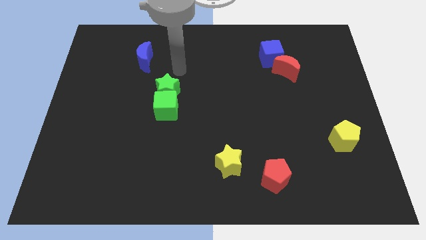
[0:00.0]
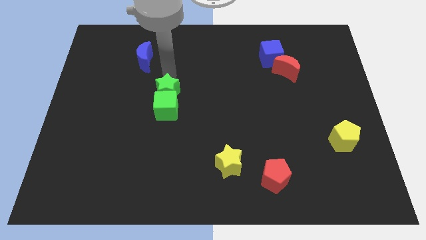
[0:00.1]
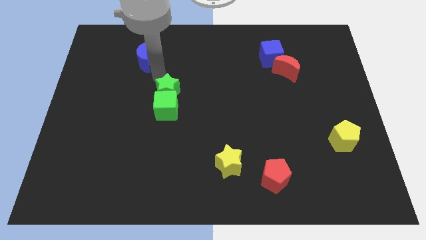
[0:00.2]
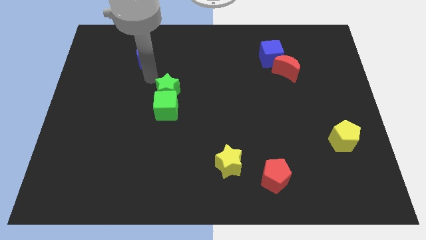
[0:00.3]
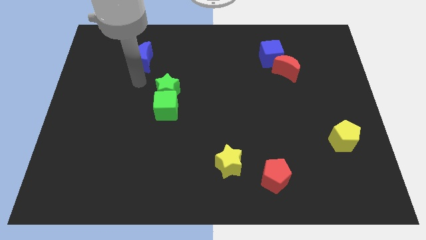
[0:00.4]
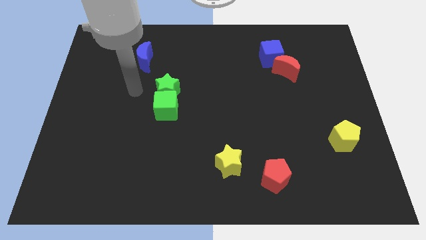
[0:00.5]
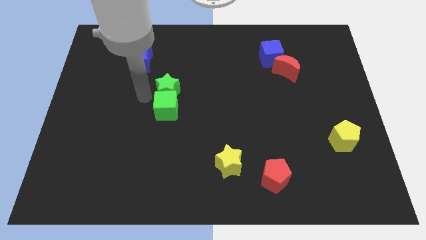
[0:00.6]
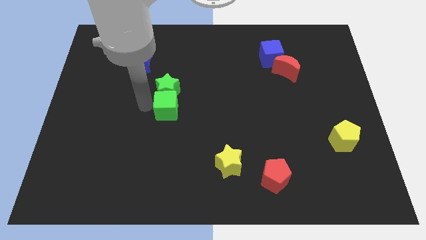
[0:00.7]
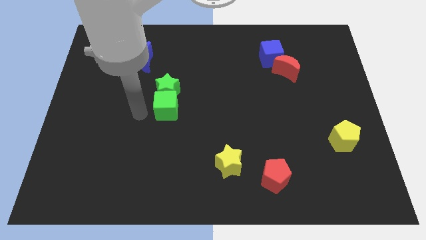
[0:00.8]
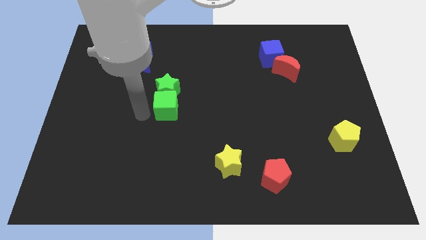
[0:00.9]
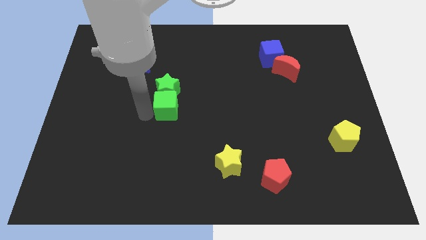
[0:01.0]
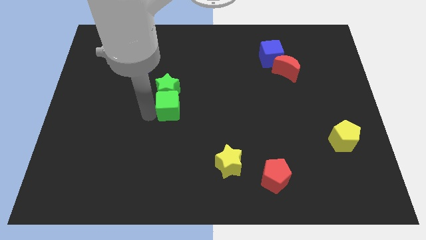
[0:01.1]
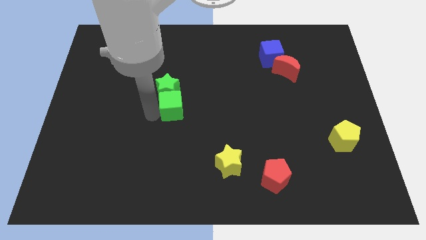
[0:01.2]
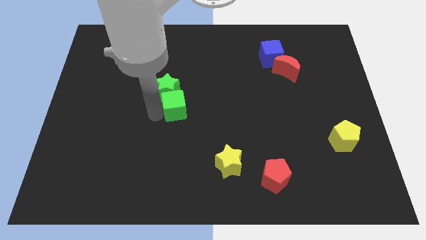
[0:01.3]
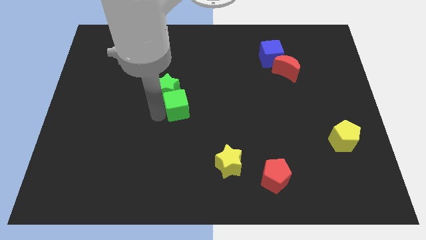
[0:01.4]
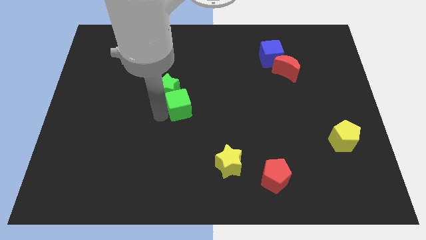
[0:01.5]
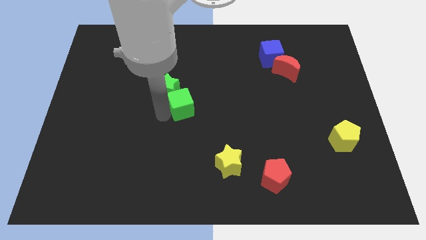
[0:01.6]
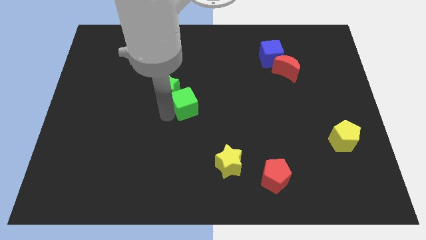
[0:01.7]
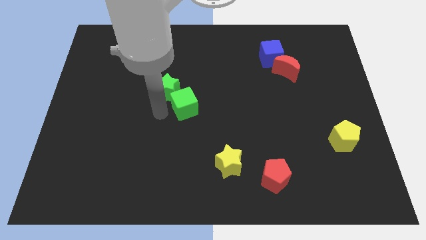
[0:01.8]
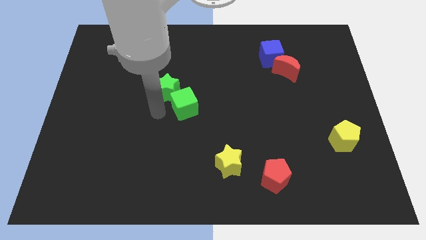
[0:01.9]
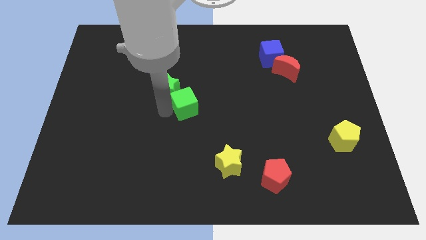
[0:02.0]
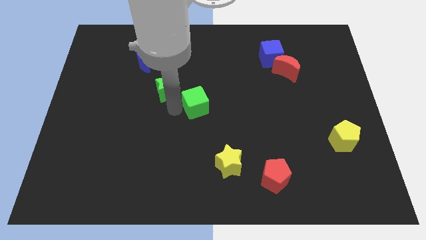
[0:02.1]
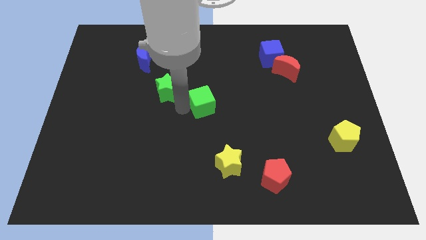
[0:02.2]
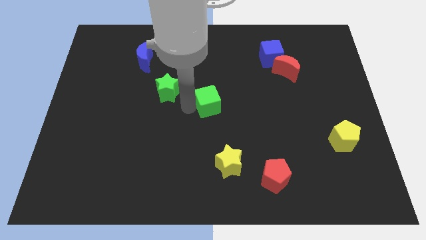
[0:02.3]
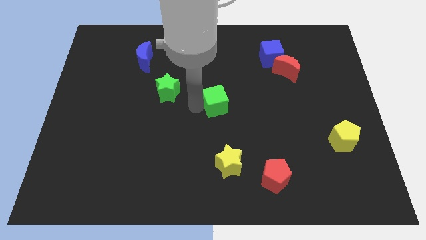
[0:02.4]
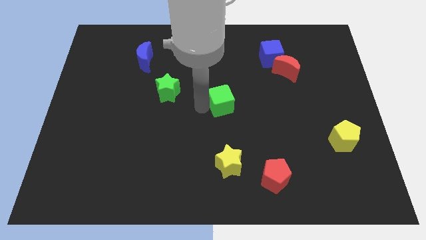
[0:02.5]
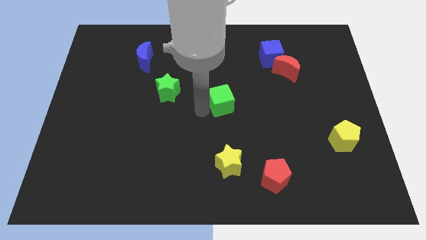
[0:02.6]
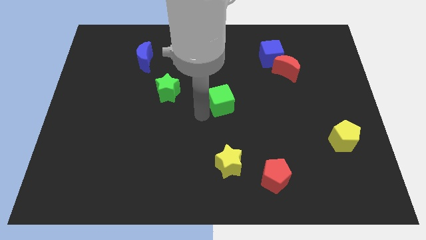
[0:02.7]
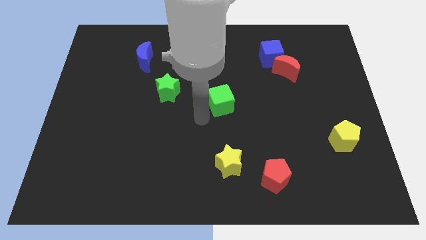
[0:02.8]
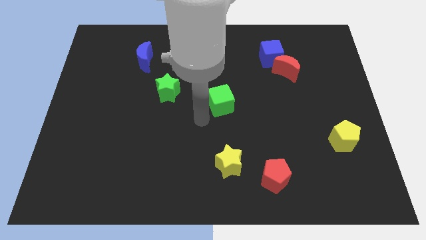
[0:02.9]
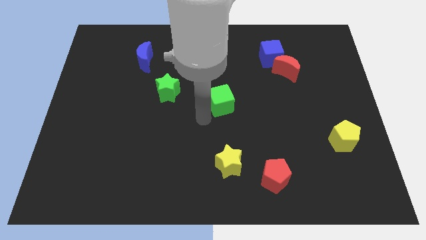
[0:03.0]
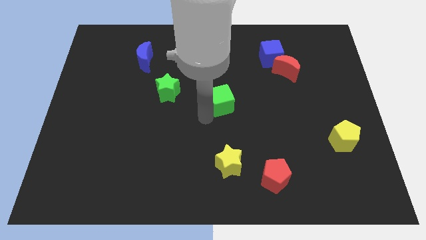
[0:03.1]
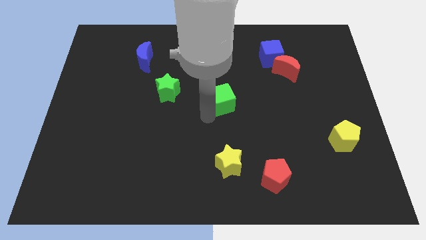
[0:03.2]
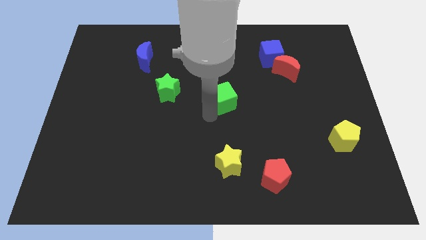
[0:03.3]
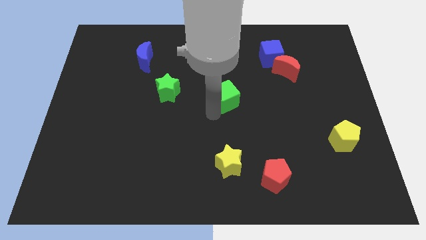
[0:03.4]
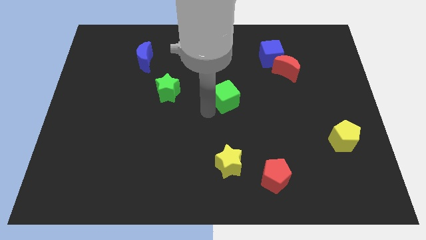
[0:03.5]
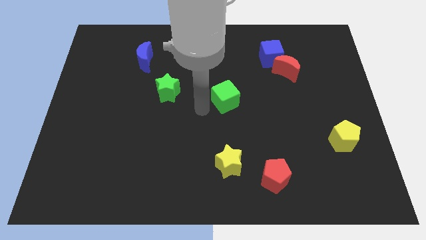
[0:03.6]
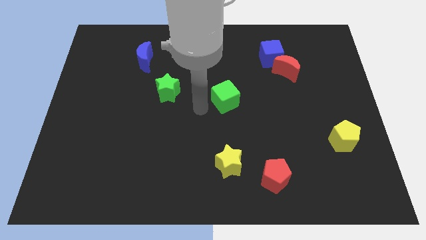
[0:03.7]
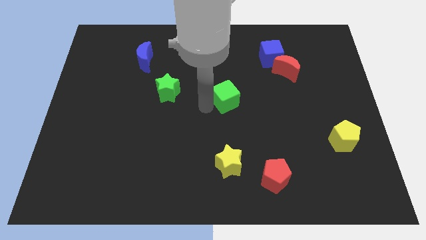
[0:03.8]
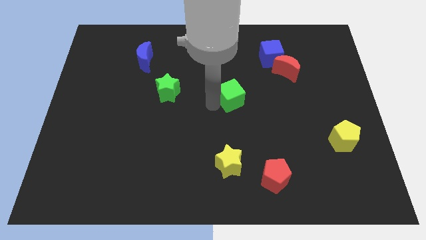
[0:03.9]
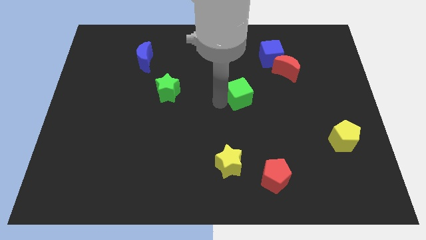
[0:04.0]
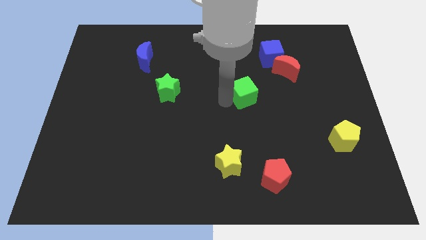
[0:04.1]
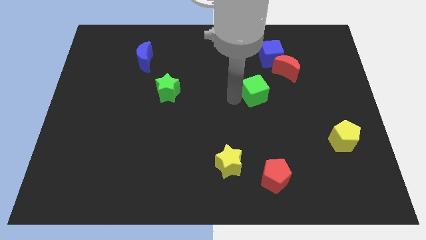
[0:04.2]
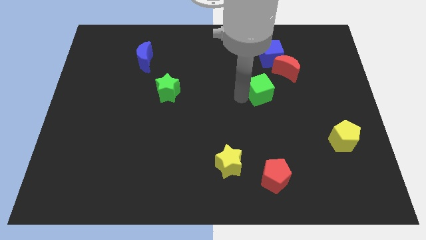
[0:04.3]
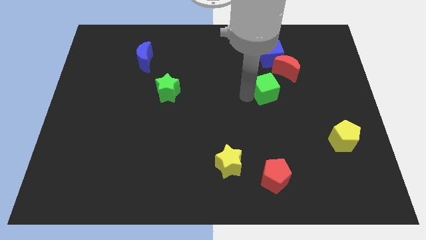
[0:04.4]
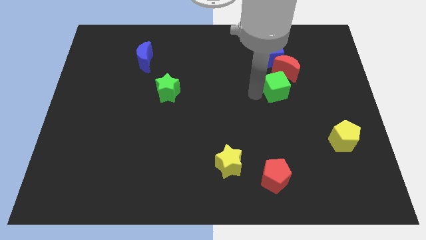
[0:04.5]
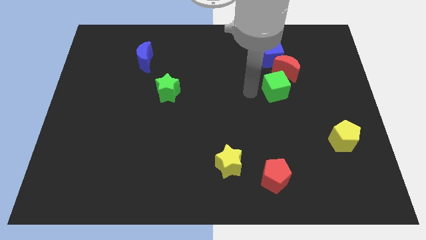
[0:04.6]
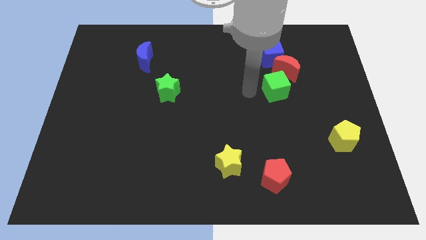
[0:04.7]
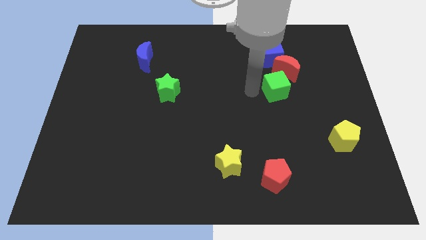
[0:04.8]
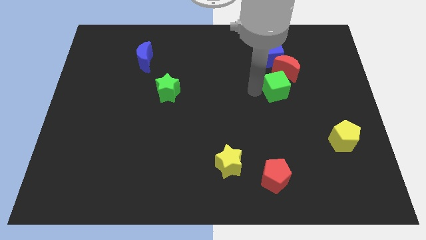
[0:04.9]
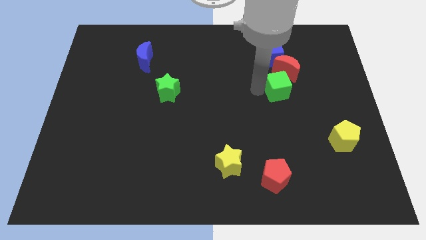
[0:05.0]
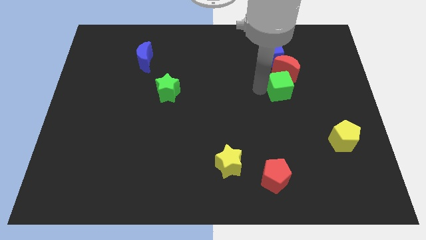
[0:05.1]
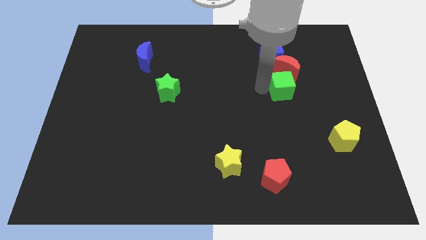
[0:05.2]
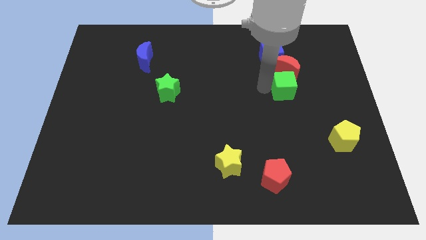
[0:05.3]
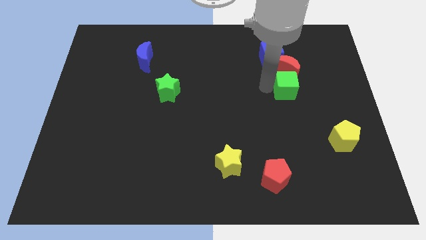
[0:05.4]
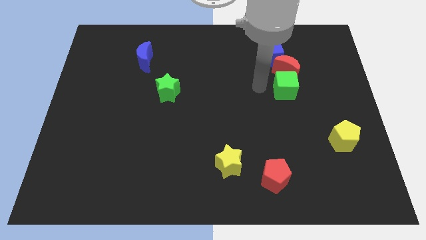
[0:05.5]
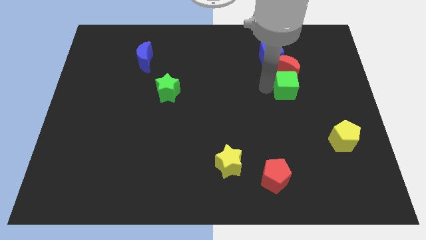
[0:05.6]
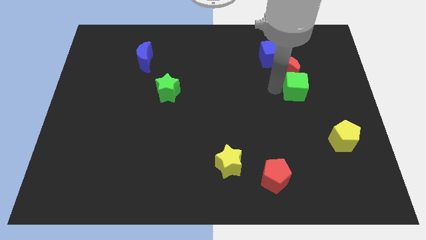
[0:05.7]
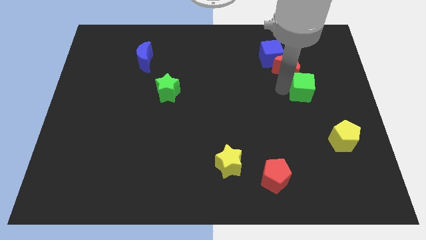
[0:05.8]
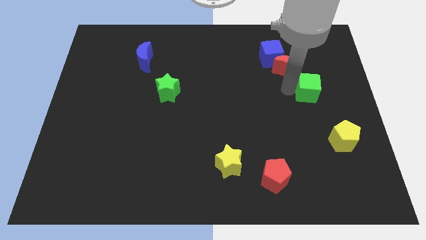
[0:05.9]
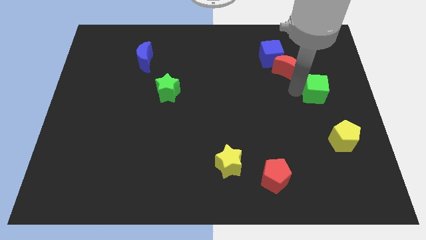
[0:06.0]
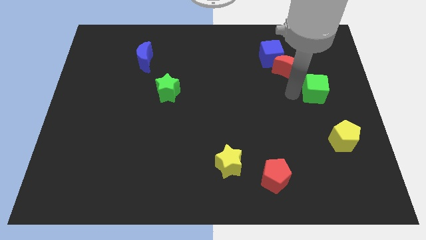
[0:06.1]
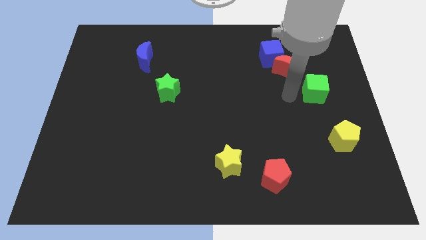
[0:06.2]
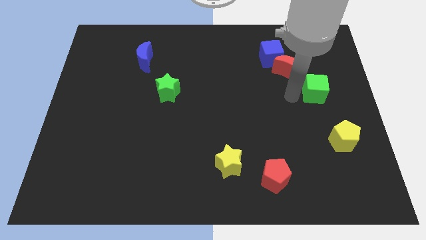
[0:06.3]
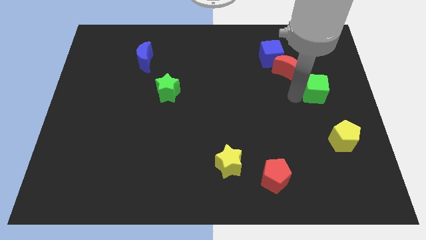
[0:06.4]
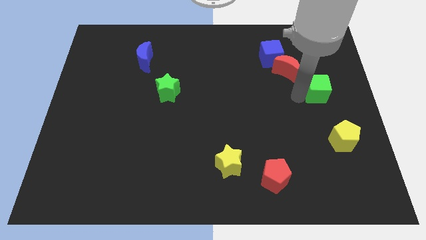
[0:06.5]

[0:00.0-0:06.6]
slide the green cube to the right side

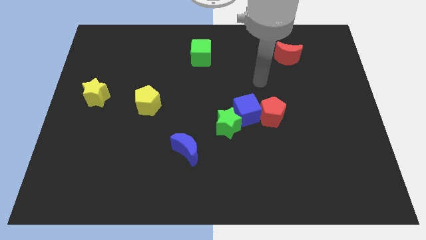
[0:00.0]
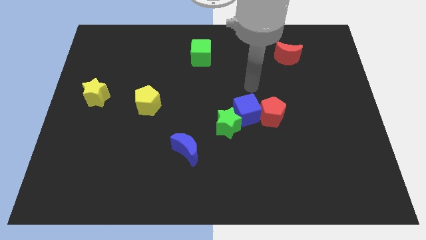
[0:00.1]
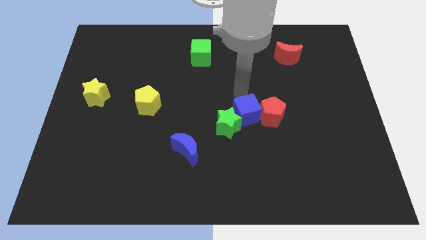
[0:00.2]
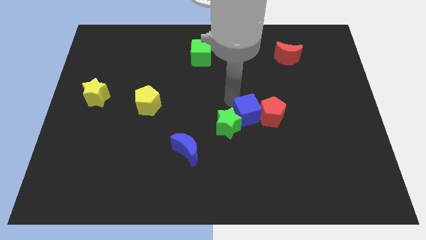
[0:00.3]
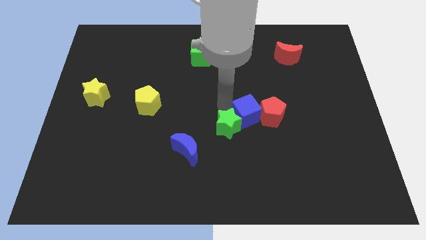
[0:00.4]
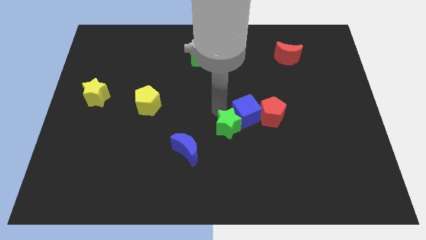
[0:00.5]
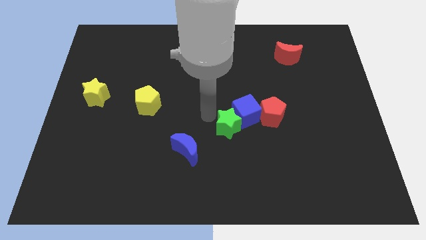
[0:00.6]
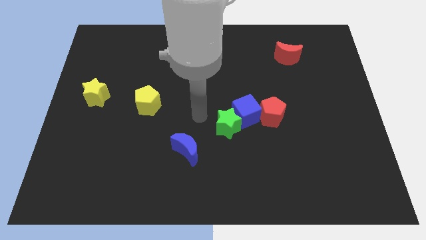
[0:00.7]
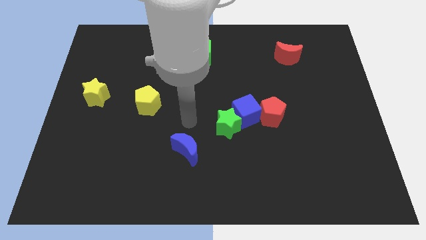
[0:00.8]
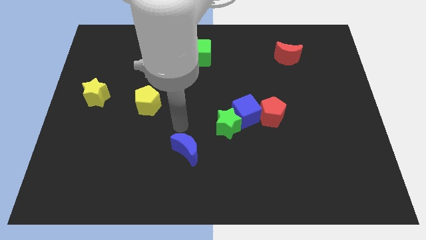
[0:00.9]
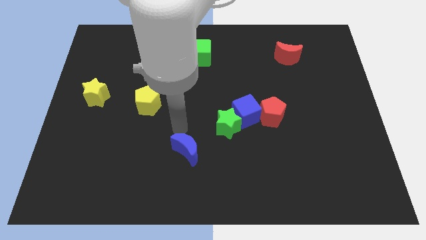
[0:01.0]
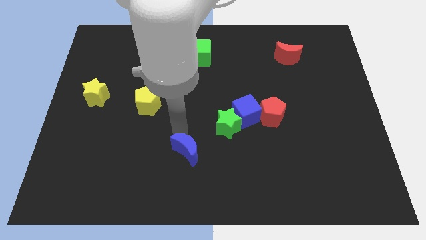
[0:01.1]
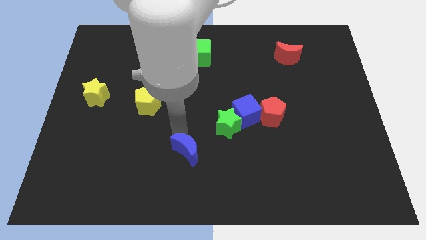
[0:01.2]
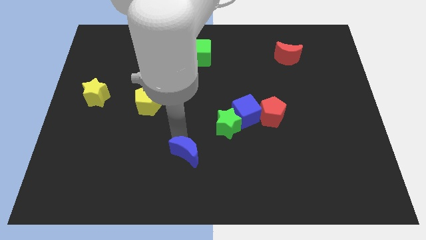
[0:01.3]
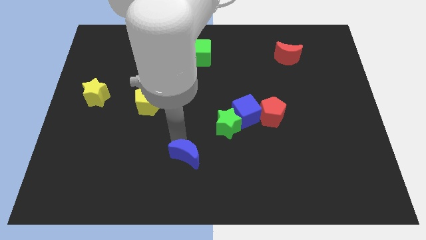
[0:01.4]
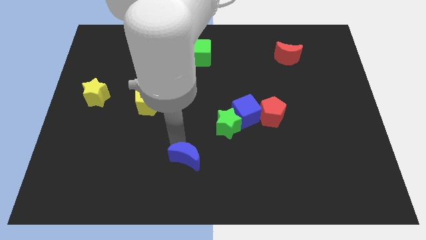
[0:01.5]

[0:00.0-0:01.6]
put the blue moon to the bottom side
